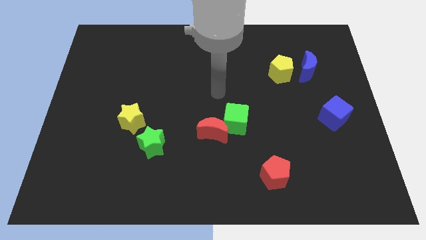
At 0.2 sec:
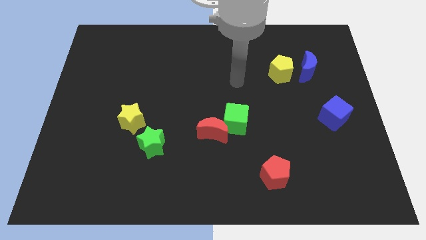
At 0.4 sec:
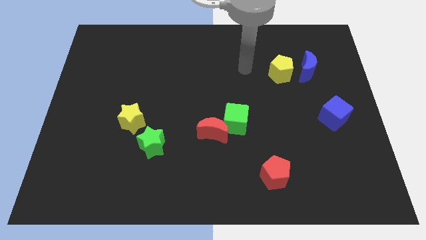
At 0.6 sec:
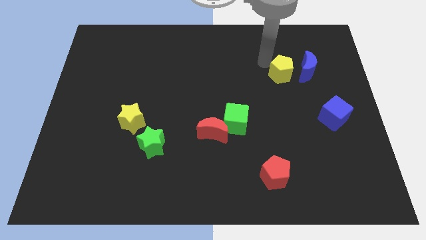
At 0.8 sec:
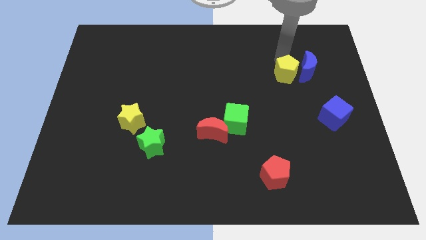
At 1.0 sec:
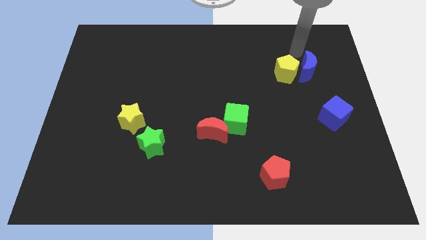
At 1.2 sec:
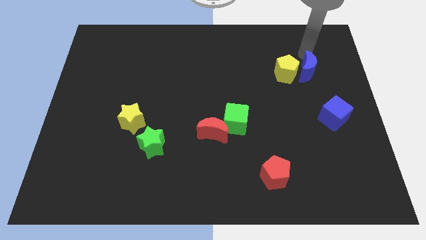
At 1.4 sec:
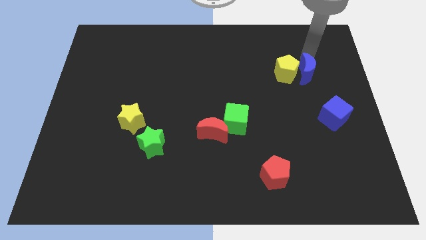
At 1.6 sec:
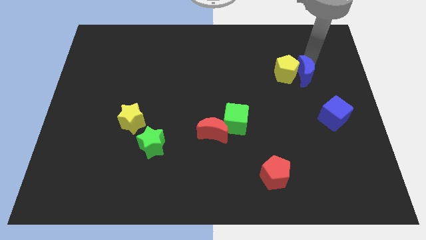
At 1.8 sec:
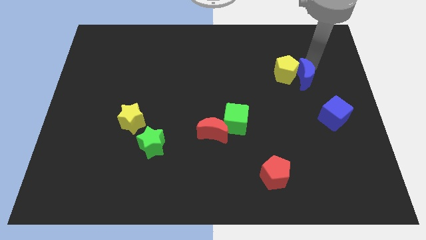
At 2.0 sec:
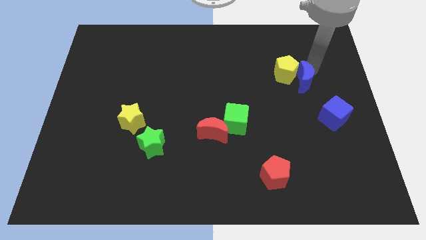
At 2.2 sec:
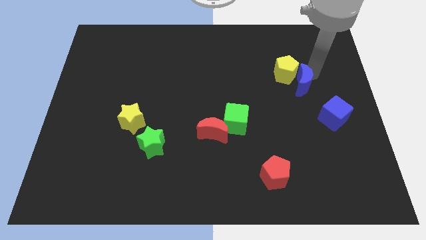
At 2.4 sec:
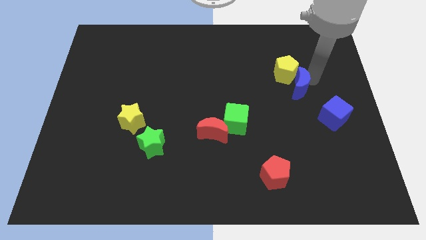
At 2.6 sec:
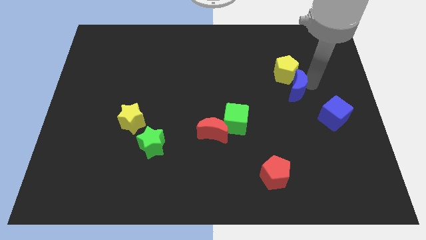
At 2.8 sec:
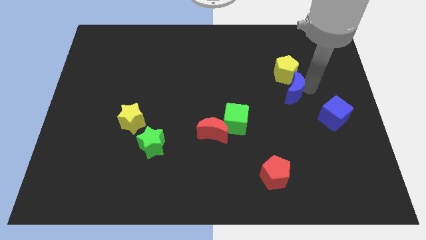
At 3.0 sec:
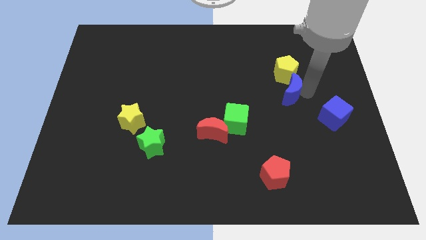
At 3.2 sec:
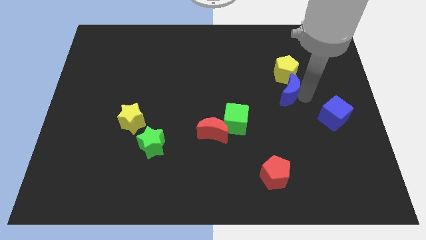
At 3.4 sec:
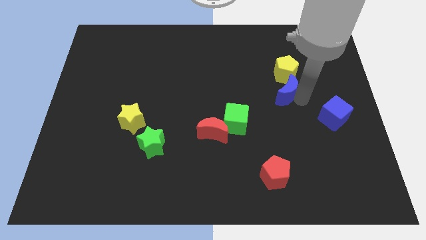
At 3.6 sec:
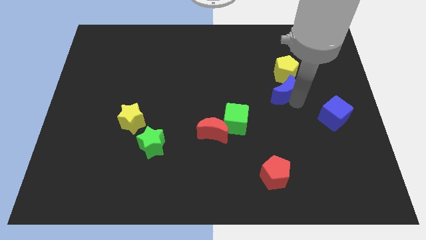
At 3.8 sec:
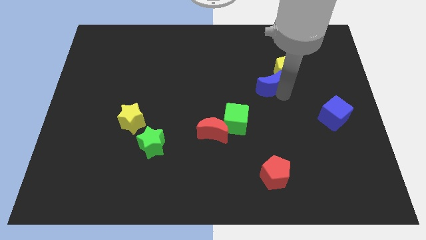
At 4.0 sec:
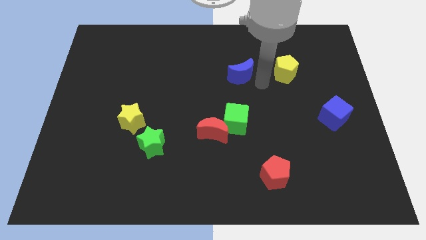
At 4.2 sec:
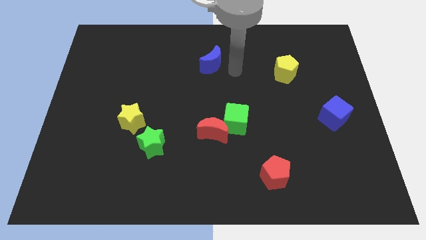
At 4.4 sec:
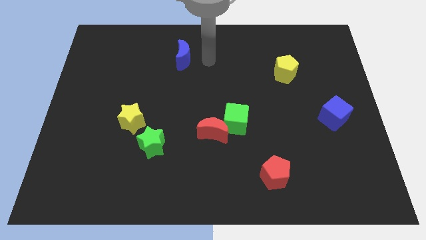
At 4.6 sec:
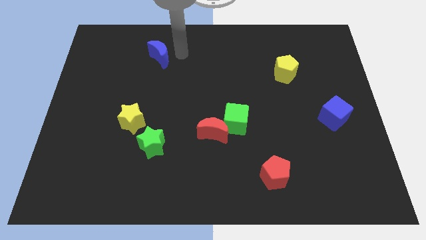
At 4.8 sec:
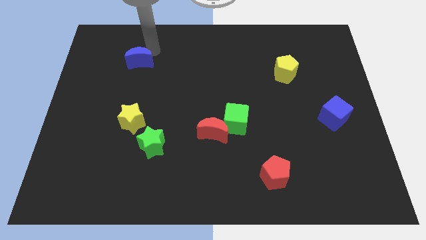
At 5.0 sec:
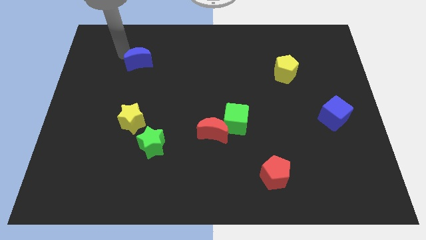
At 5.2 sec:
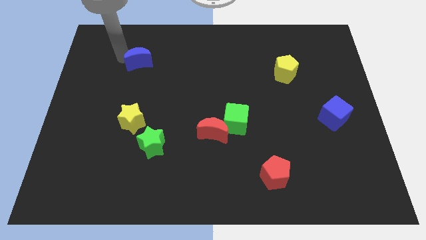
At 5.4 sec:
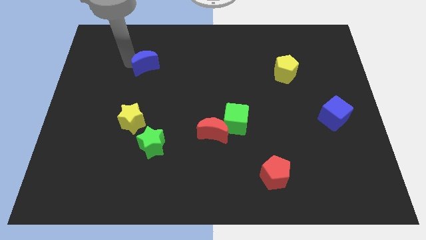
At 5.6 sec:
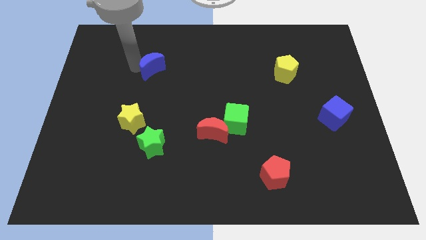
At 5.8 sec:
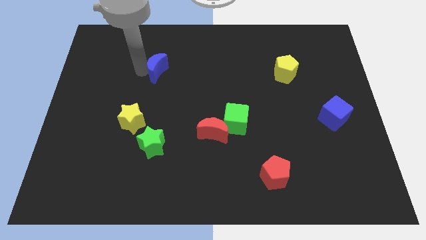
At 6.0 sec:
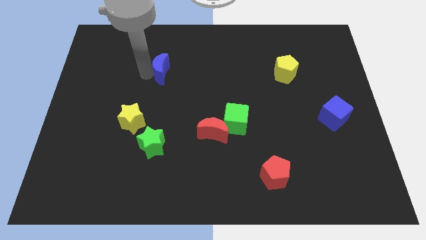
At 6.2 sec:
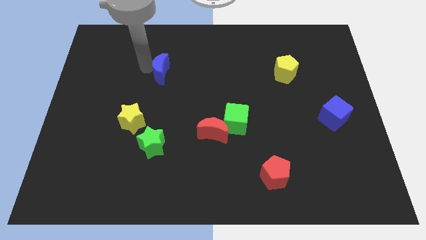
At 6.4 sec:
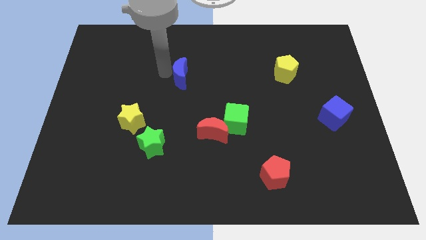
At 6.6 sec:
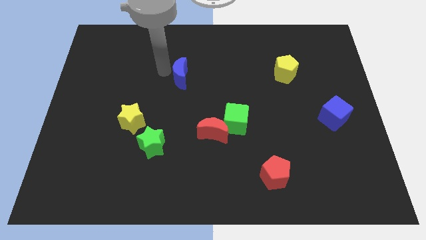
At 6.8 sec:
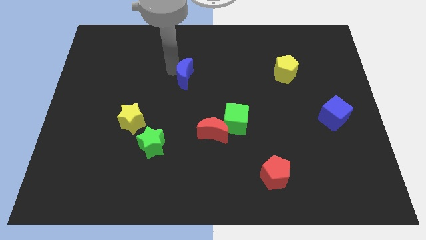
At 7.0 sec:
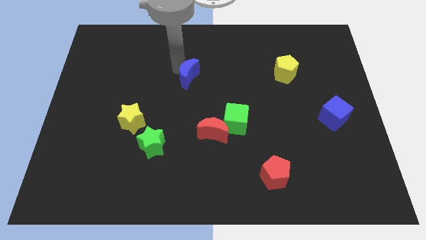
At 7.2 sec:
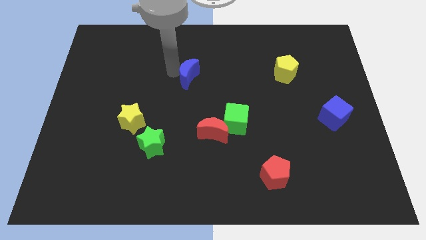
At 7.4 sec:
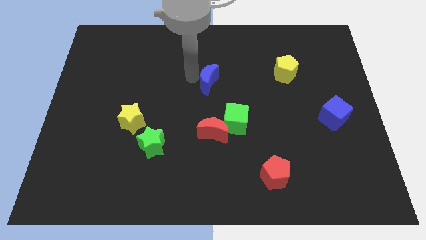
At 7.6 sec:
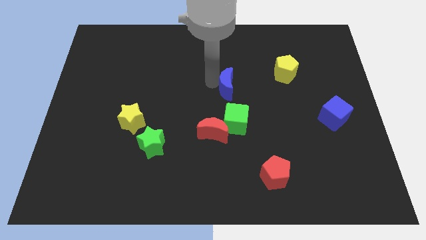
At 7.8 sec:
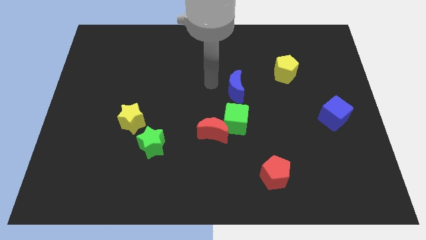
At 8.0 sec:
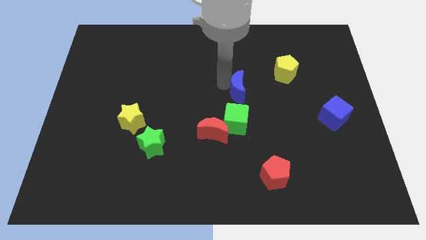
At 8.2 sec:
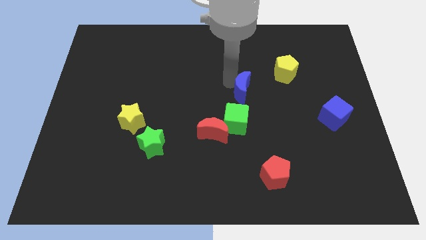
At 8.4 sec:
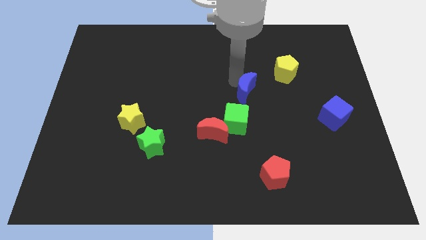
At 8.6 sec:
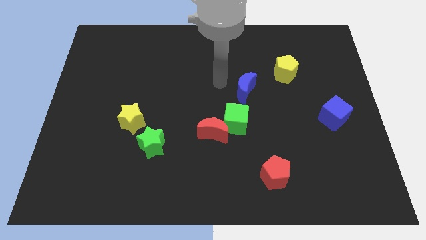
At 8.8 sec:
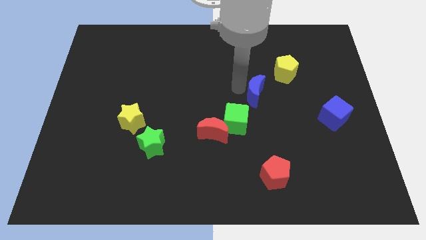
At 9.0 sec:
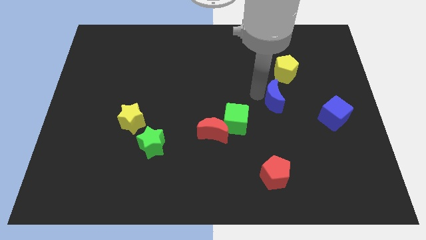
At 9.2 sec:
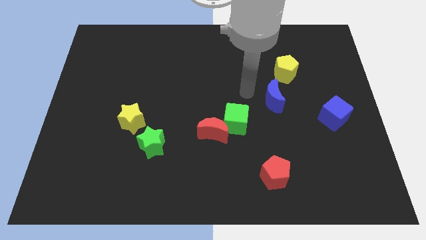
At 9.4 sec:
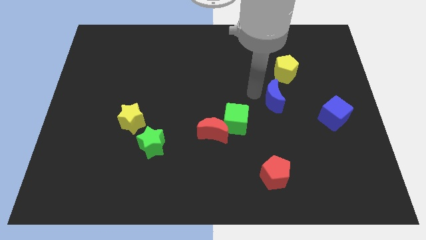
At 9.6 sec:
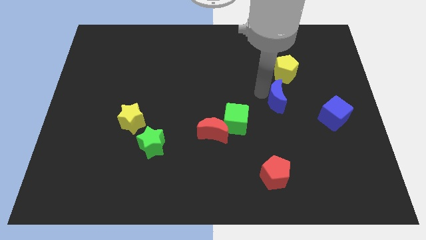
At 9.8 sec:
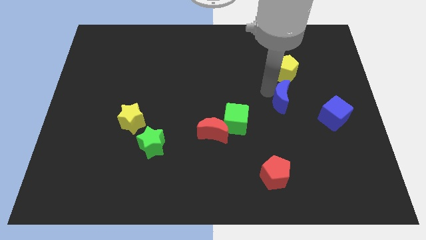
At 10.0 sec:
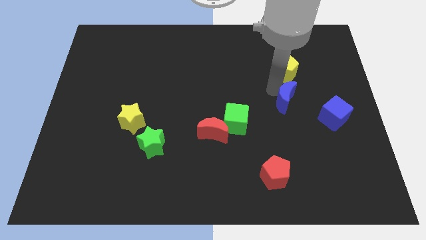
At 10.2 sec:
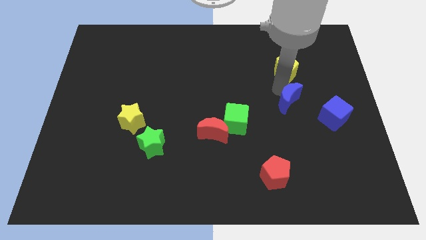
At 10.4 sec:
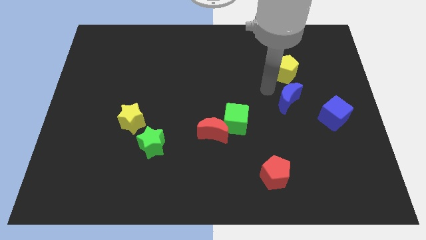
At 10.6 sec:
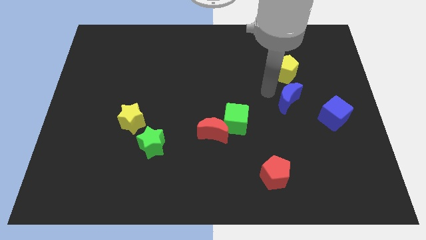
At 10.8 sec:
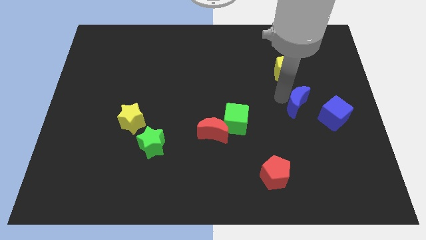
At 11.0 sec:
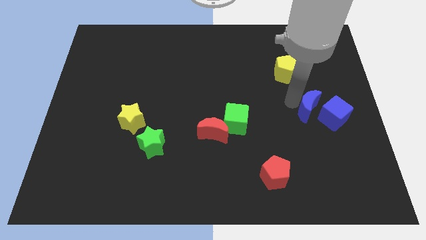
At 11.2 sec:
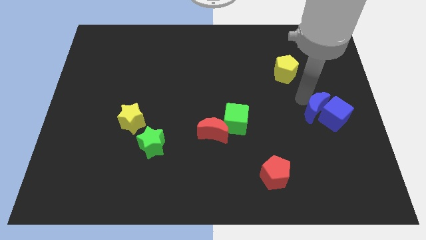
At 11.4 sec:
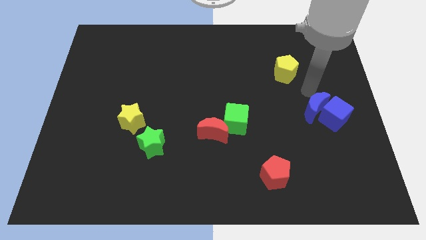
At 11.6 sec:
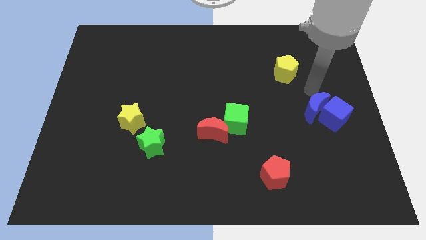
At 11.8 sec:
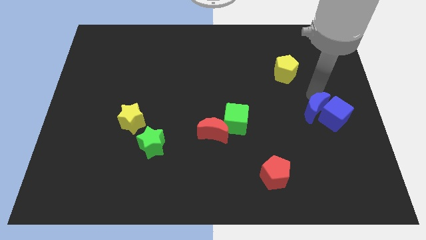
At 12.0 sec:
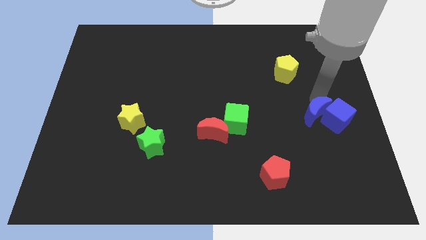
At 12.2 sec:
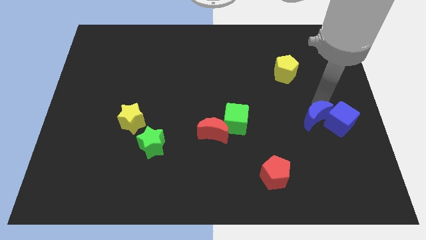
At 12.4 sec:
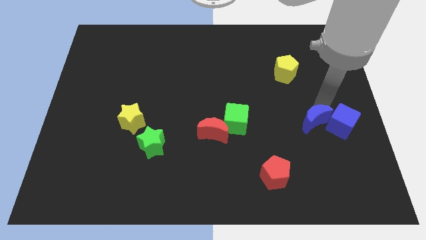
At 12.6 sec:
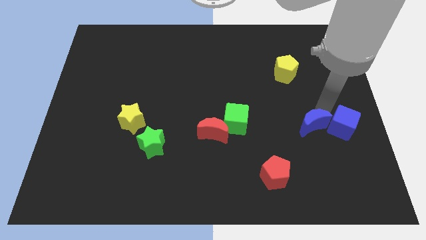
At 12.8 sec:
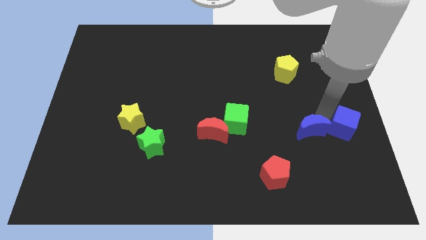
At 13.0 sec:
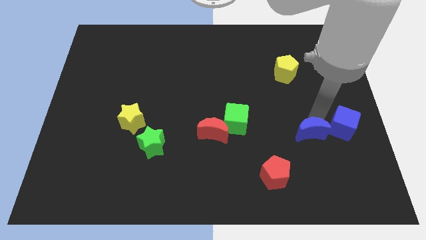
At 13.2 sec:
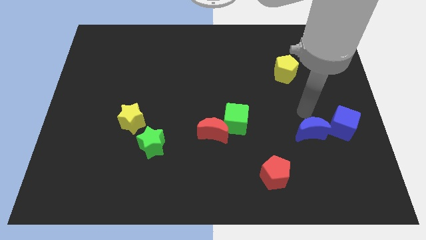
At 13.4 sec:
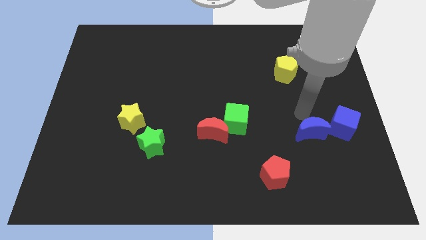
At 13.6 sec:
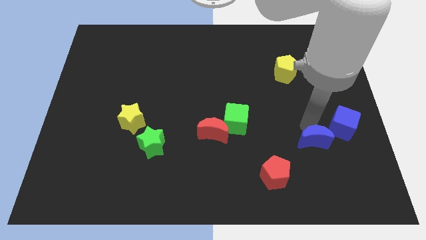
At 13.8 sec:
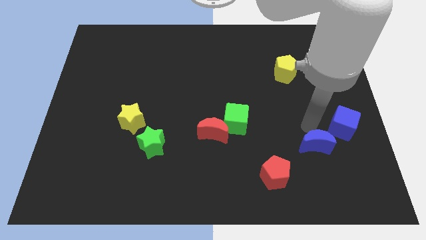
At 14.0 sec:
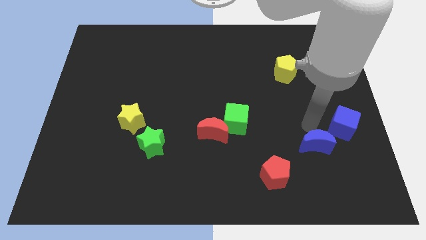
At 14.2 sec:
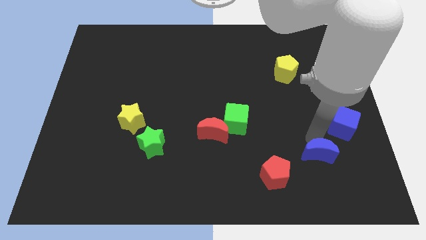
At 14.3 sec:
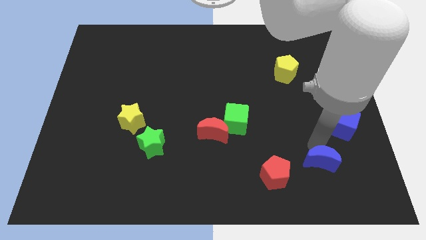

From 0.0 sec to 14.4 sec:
slide the blue moon to the right of the red pentagon
